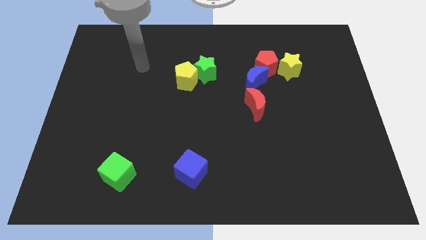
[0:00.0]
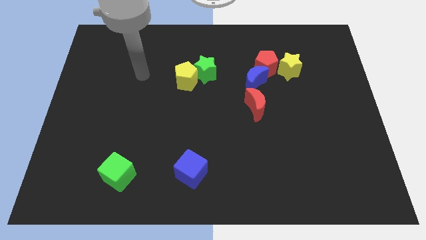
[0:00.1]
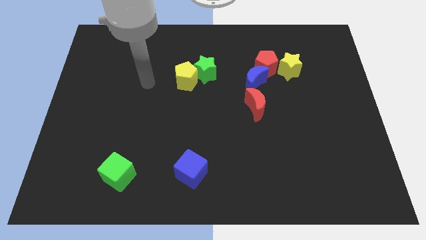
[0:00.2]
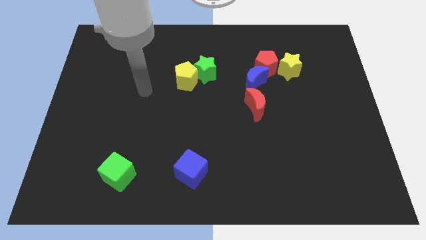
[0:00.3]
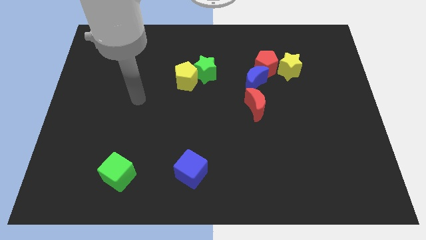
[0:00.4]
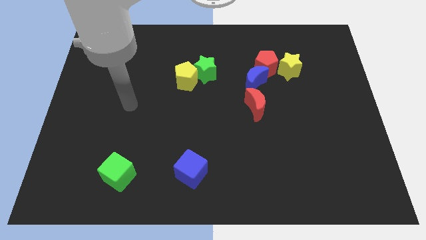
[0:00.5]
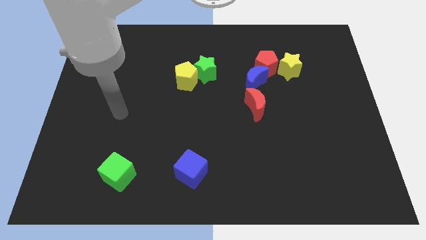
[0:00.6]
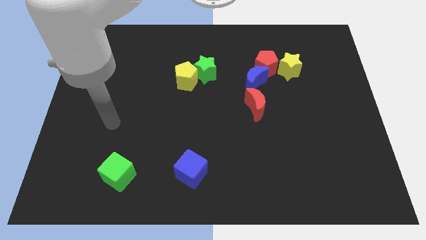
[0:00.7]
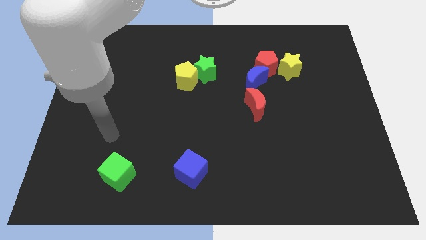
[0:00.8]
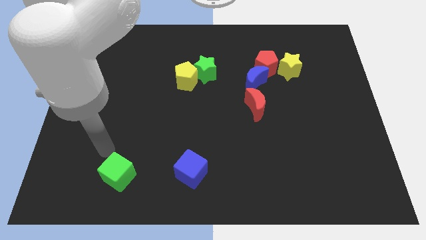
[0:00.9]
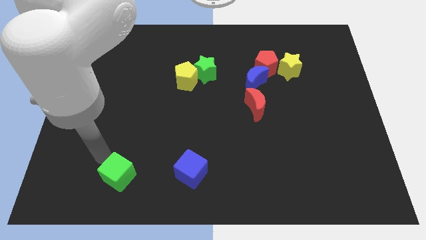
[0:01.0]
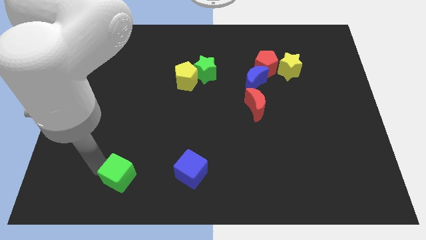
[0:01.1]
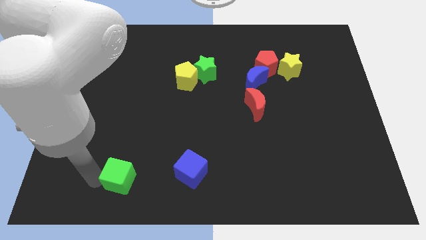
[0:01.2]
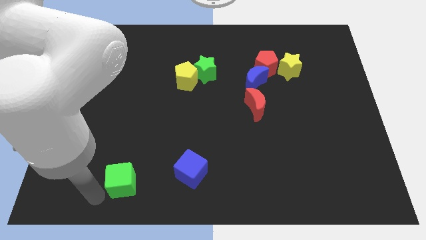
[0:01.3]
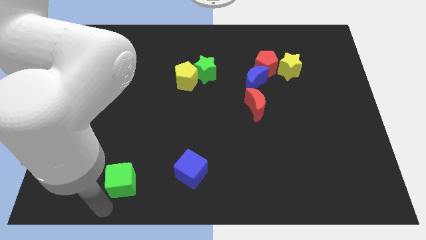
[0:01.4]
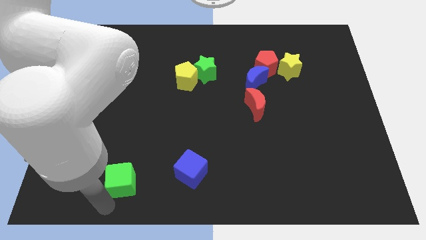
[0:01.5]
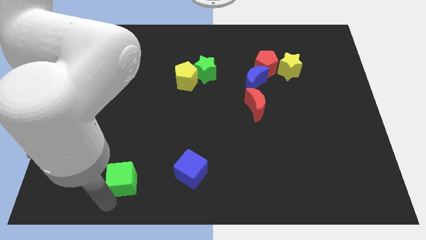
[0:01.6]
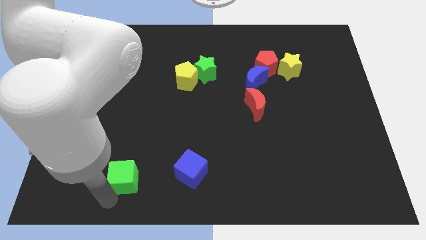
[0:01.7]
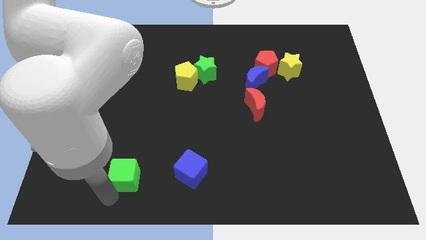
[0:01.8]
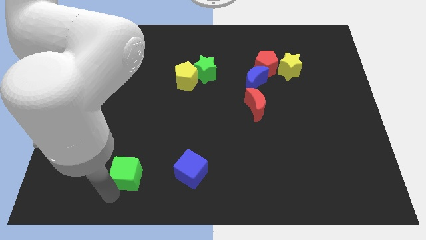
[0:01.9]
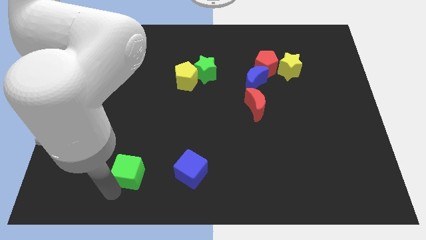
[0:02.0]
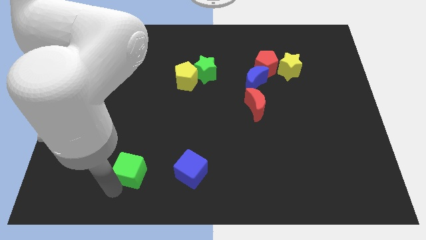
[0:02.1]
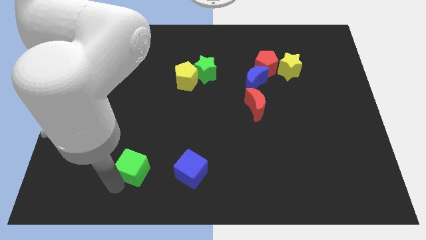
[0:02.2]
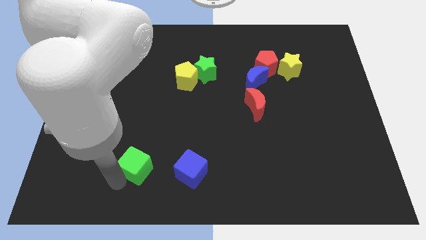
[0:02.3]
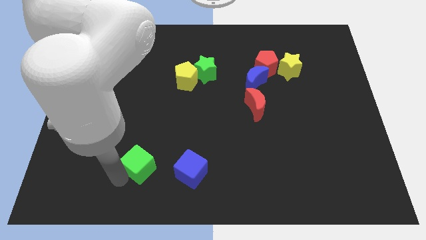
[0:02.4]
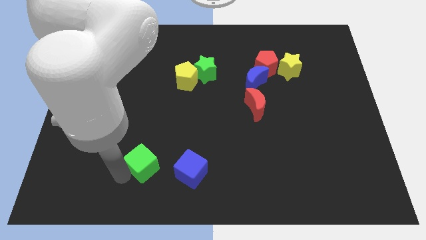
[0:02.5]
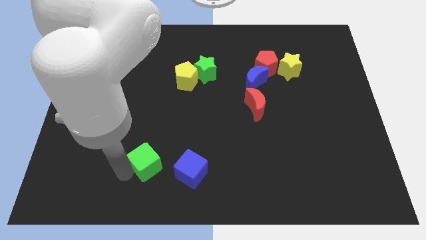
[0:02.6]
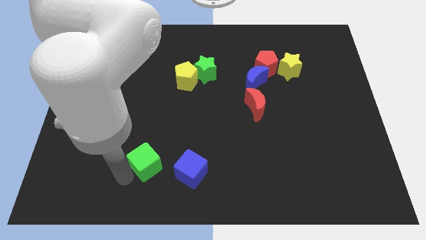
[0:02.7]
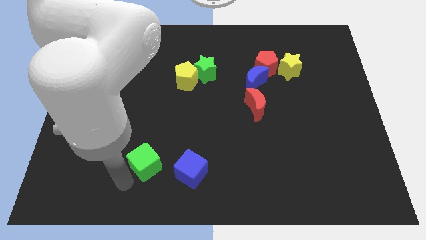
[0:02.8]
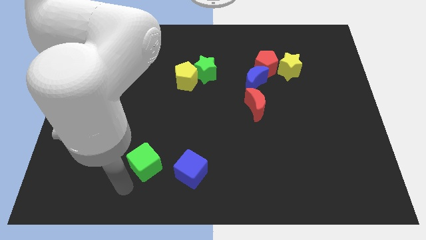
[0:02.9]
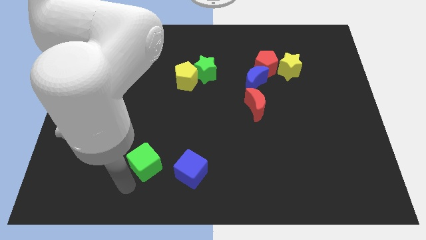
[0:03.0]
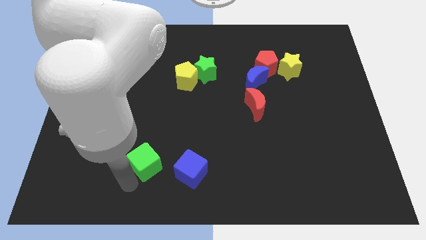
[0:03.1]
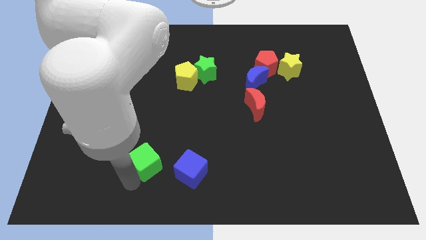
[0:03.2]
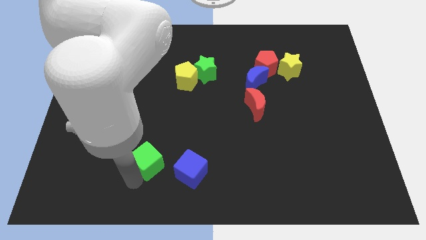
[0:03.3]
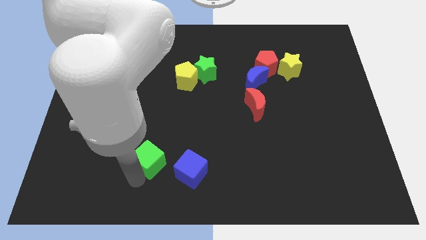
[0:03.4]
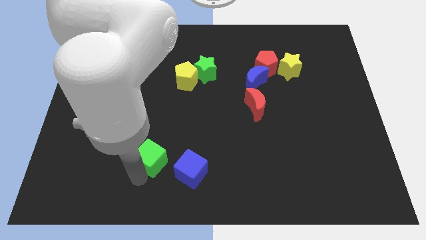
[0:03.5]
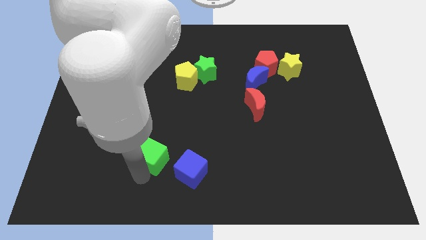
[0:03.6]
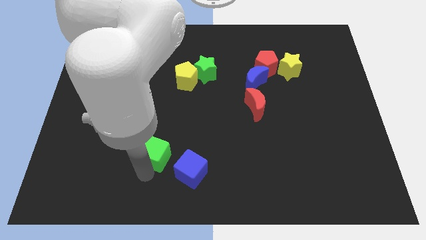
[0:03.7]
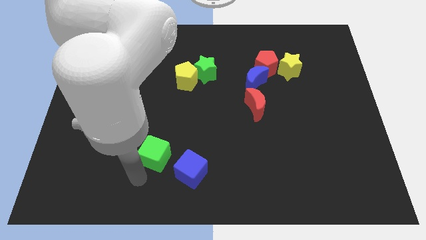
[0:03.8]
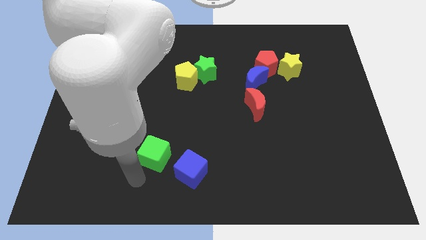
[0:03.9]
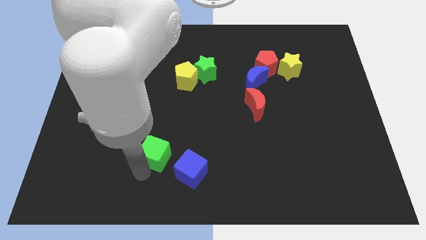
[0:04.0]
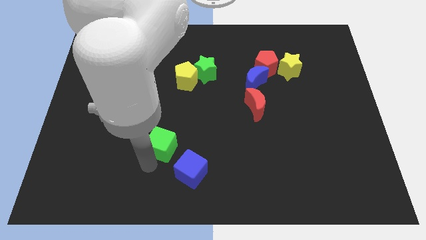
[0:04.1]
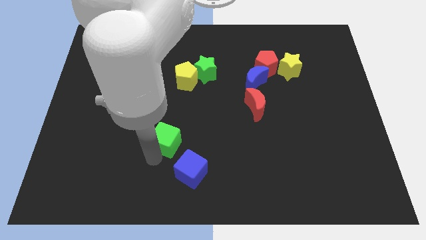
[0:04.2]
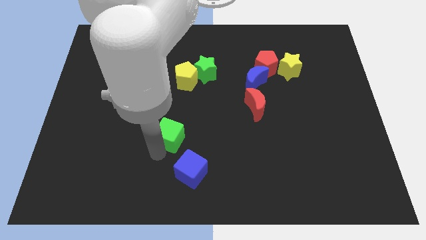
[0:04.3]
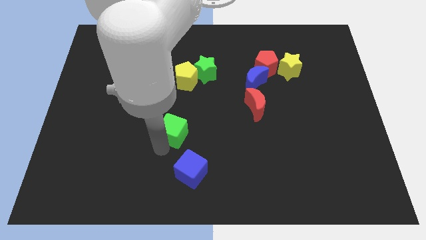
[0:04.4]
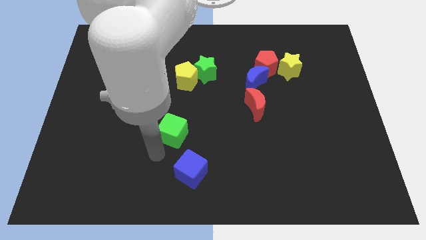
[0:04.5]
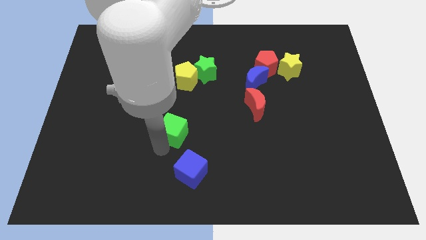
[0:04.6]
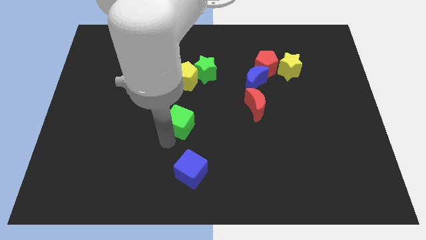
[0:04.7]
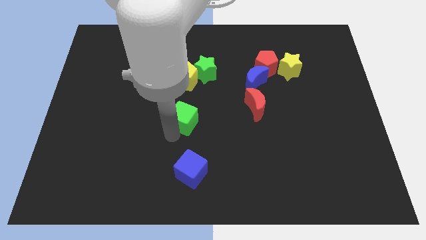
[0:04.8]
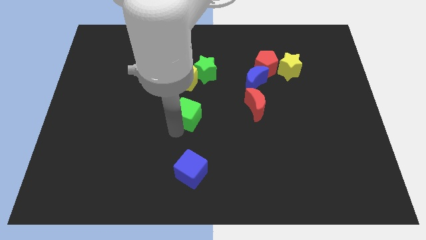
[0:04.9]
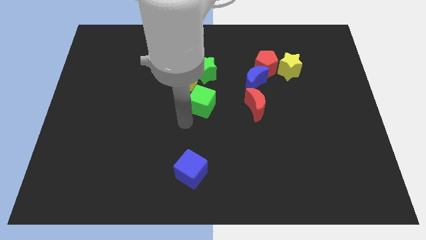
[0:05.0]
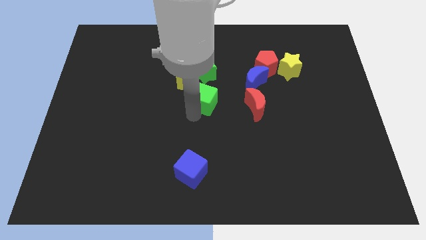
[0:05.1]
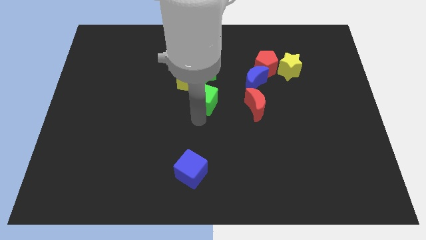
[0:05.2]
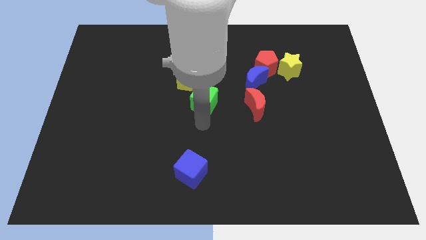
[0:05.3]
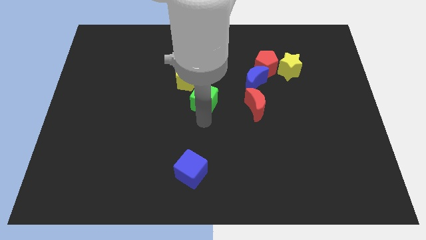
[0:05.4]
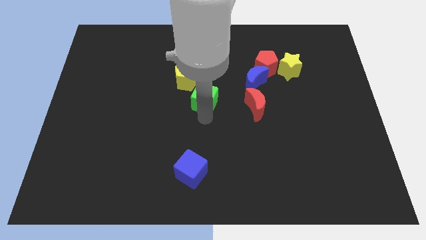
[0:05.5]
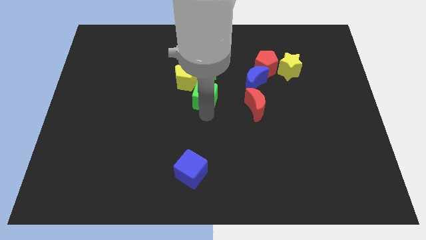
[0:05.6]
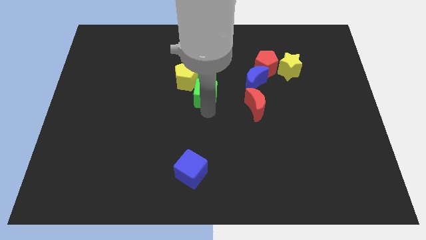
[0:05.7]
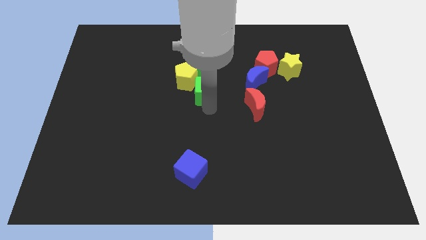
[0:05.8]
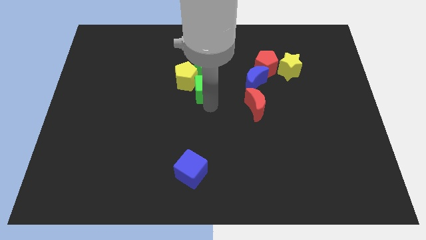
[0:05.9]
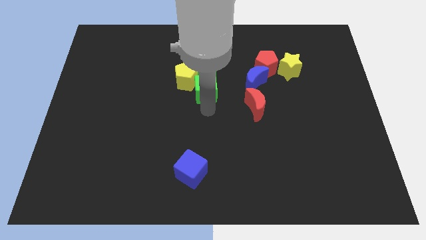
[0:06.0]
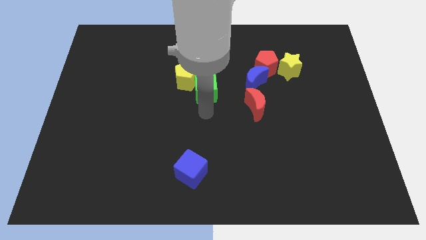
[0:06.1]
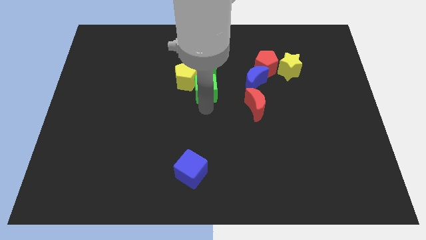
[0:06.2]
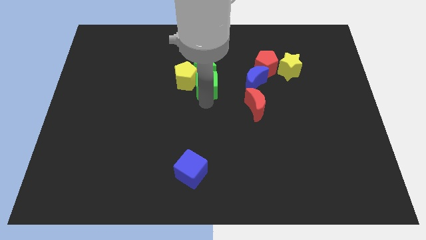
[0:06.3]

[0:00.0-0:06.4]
slide the green cube towards the green star
